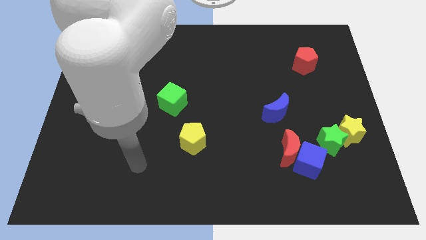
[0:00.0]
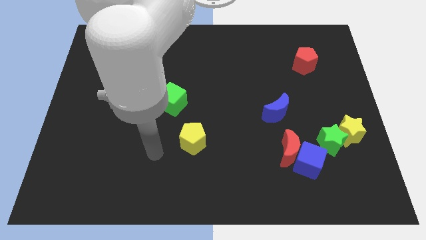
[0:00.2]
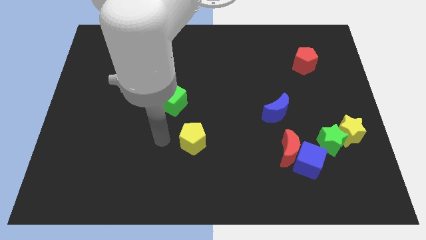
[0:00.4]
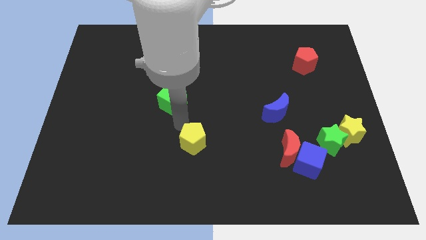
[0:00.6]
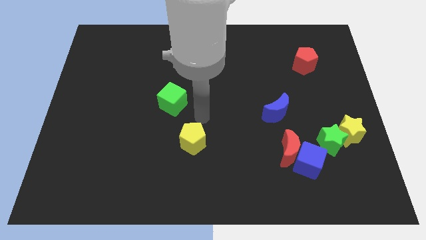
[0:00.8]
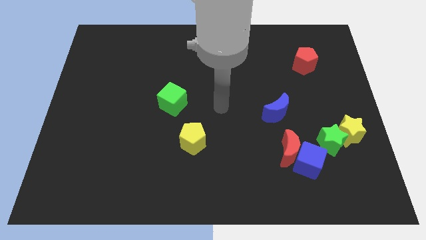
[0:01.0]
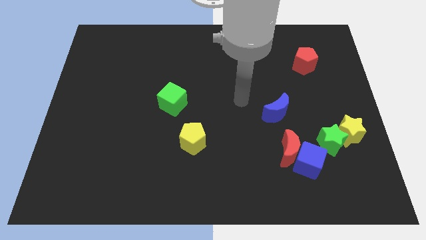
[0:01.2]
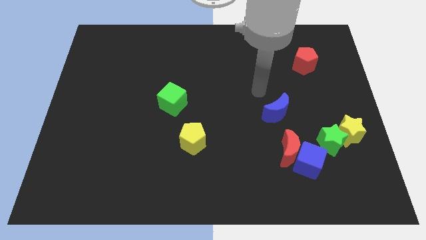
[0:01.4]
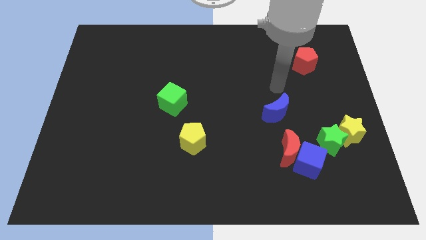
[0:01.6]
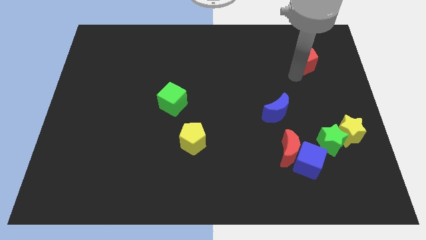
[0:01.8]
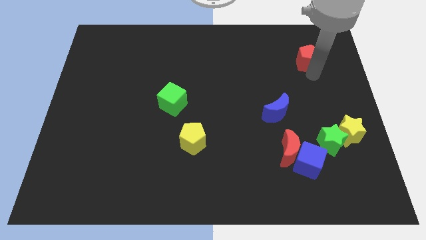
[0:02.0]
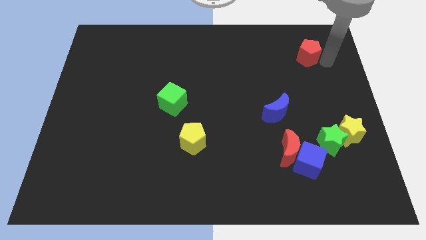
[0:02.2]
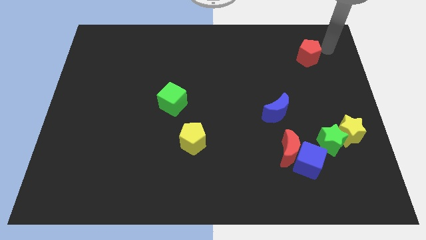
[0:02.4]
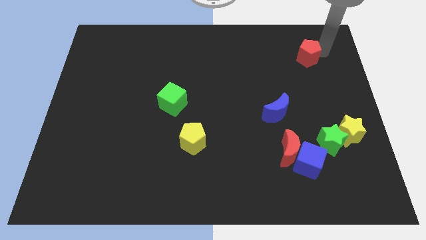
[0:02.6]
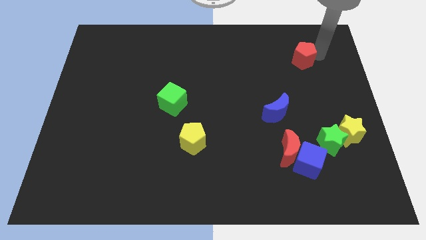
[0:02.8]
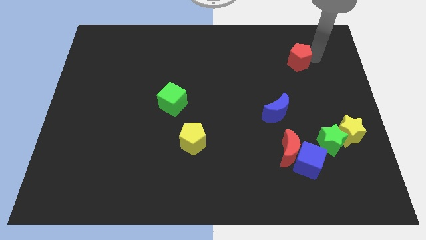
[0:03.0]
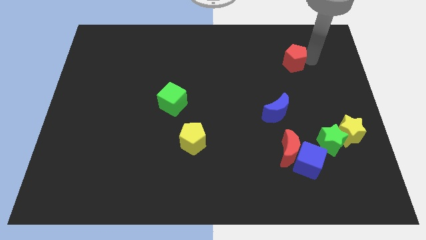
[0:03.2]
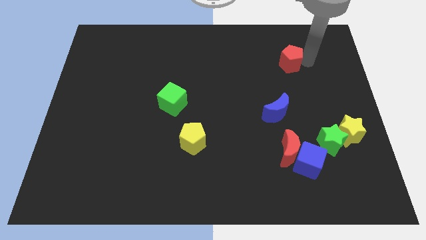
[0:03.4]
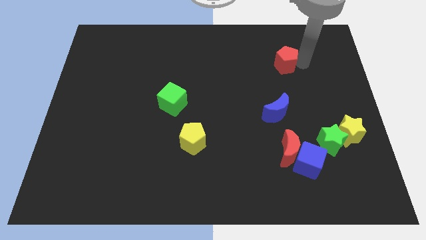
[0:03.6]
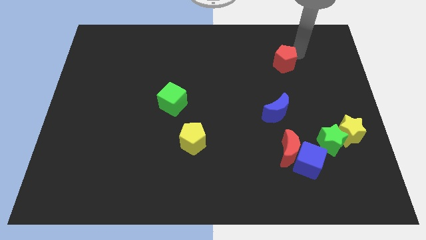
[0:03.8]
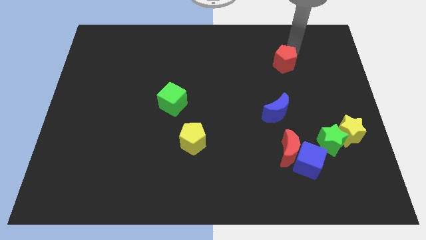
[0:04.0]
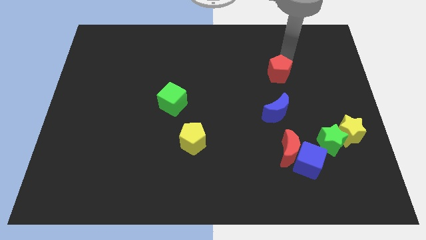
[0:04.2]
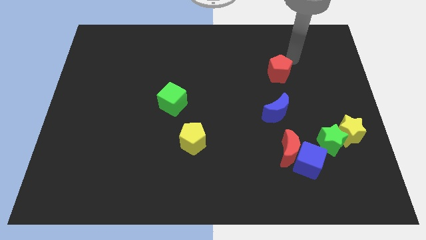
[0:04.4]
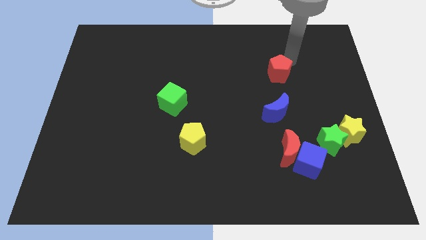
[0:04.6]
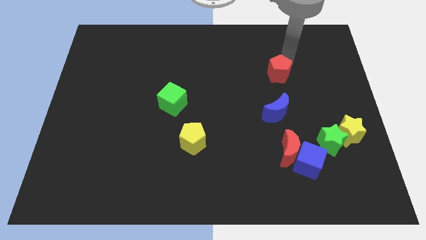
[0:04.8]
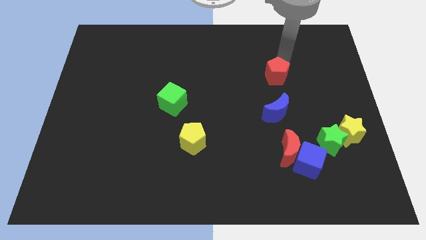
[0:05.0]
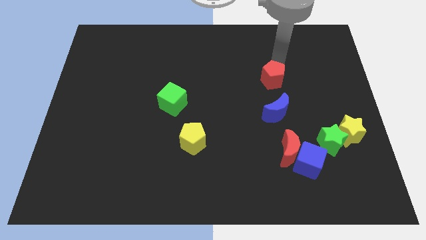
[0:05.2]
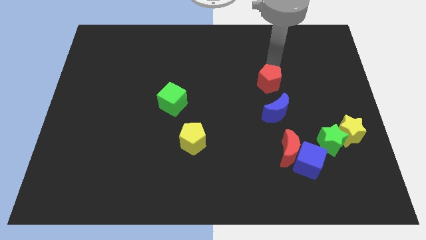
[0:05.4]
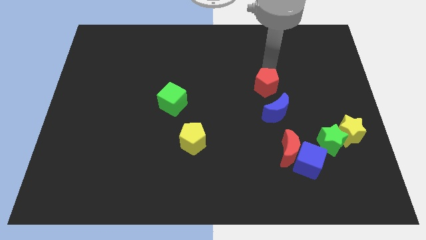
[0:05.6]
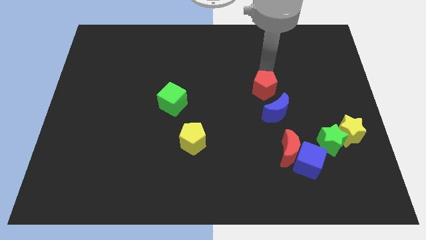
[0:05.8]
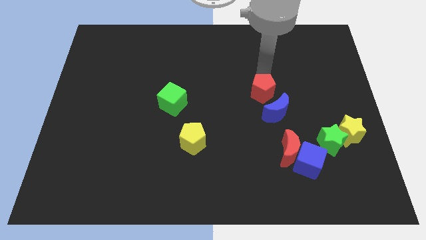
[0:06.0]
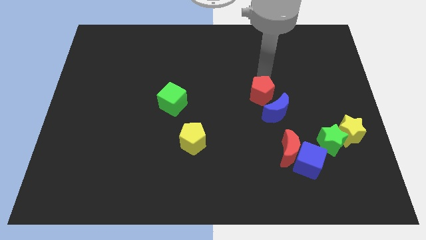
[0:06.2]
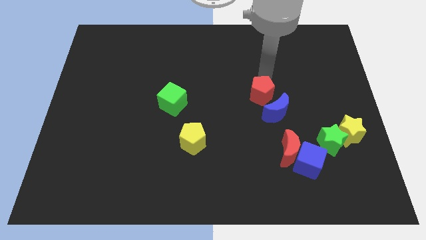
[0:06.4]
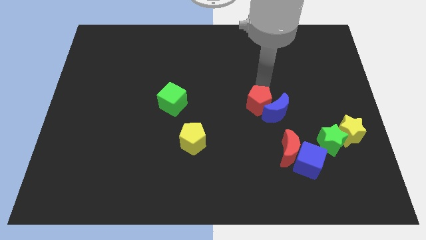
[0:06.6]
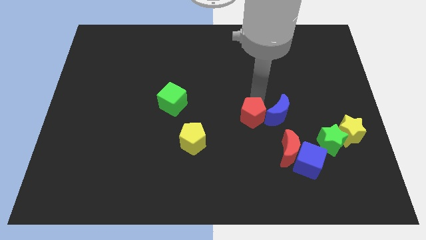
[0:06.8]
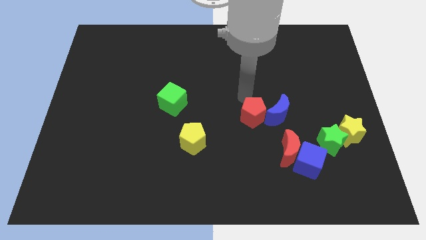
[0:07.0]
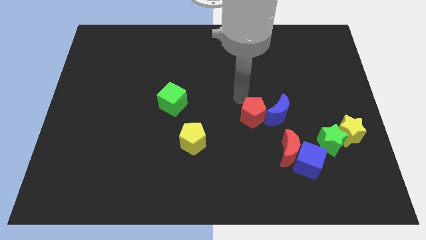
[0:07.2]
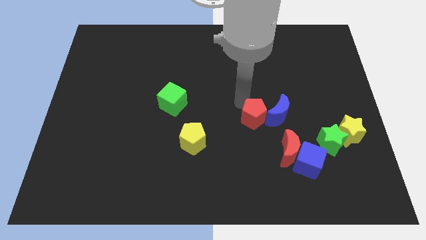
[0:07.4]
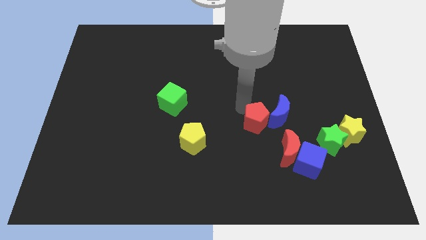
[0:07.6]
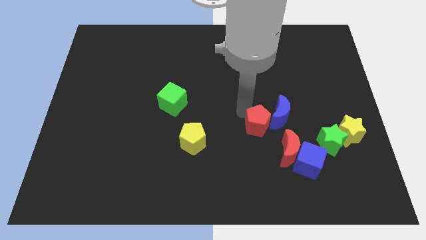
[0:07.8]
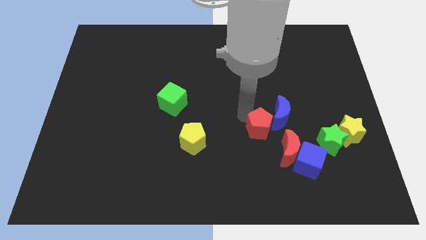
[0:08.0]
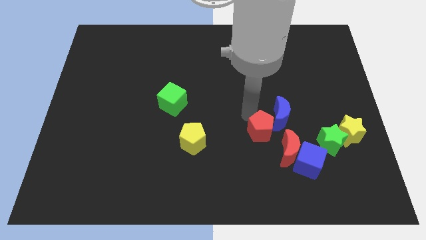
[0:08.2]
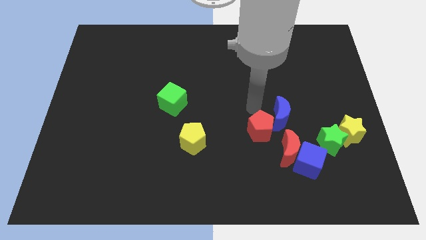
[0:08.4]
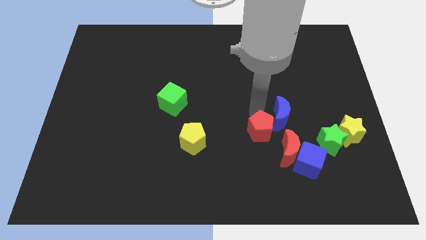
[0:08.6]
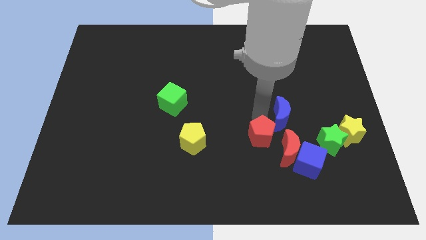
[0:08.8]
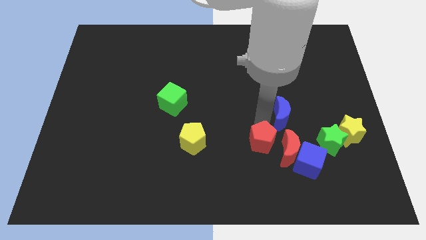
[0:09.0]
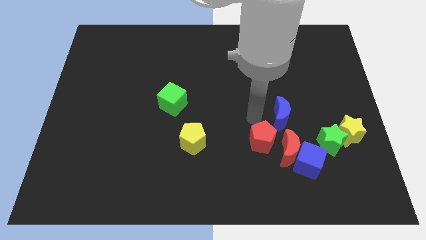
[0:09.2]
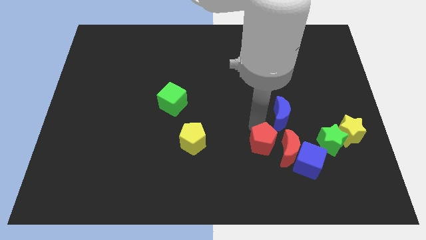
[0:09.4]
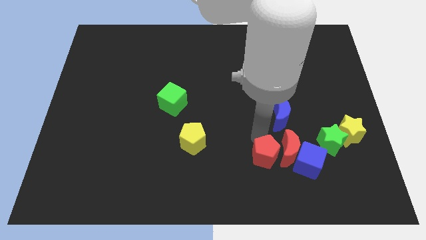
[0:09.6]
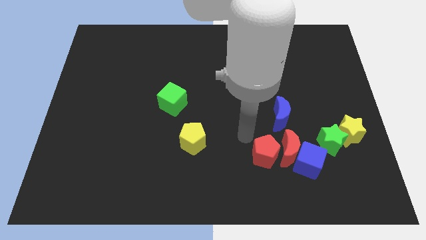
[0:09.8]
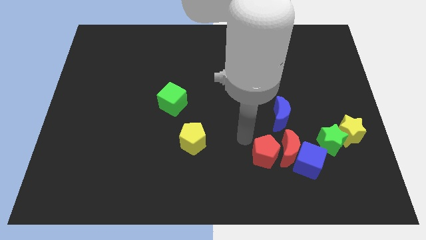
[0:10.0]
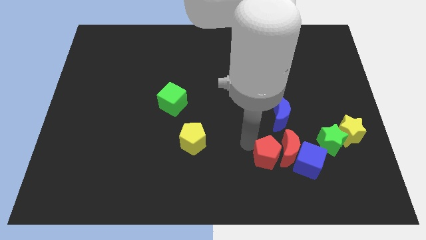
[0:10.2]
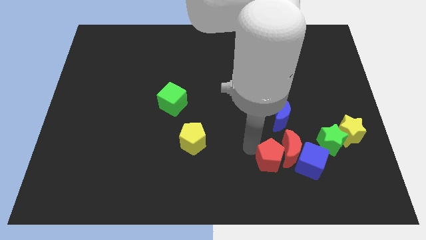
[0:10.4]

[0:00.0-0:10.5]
move the red pentagon down

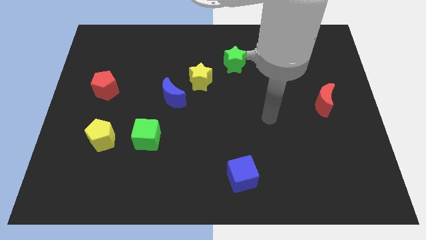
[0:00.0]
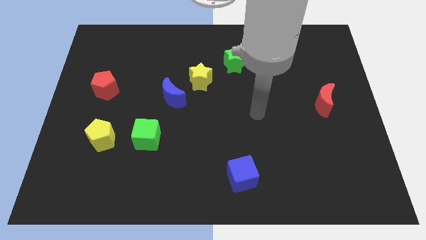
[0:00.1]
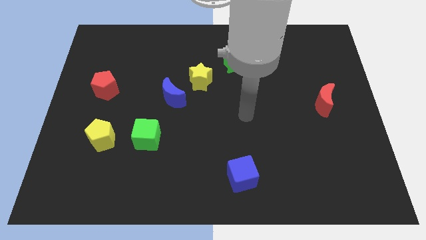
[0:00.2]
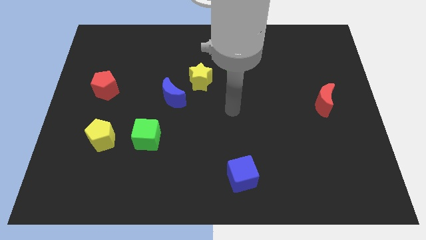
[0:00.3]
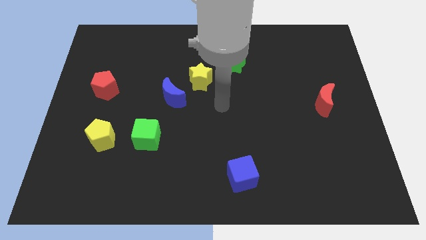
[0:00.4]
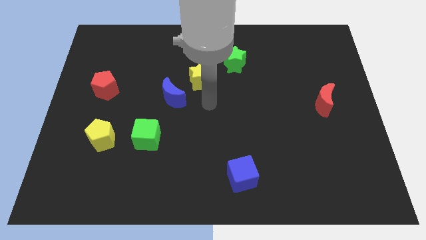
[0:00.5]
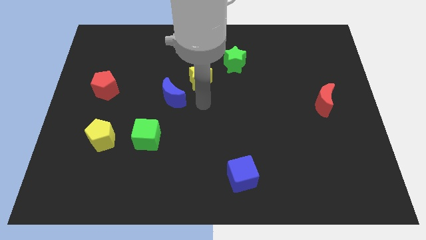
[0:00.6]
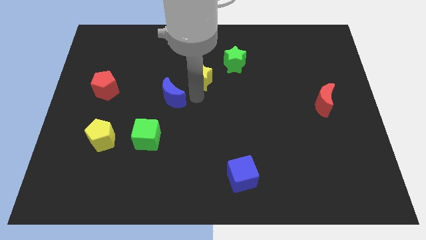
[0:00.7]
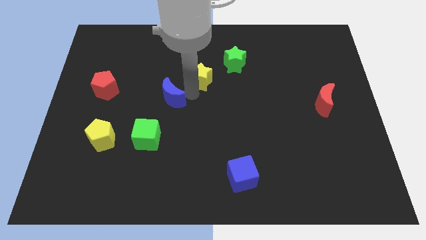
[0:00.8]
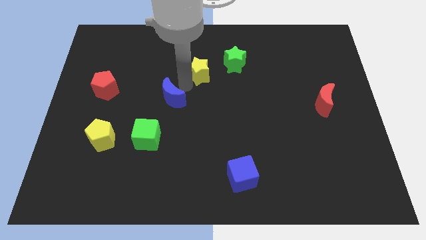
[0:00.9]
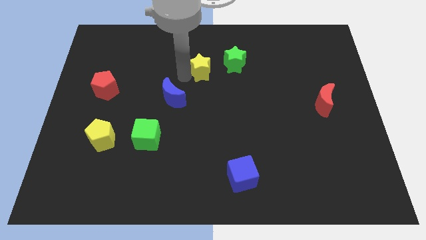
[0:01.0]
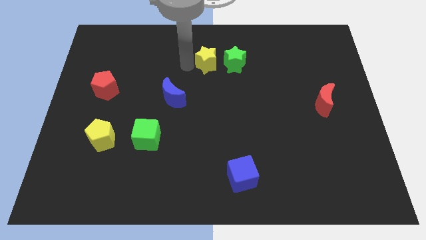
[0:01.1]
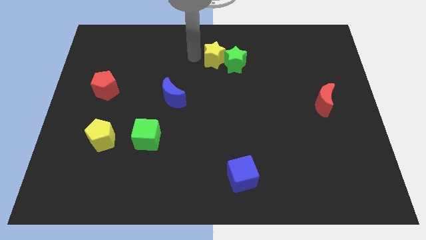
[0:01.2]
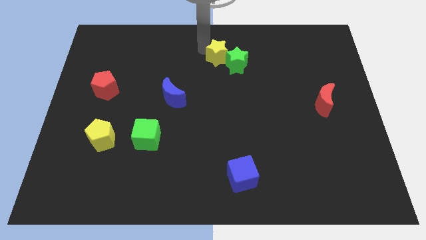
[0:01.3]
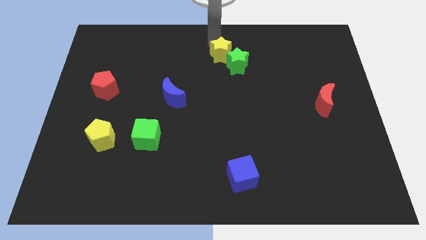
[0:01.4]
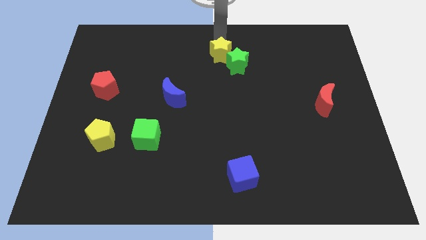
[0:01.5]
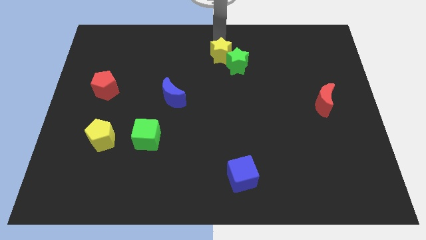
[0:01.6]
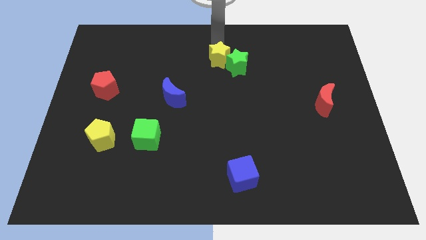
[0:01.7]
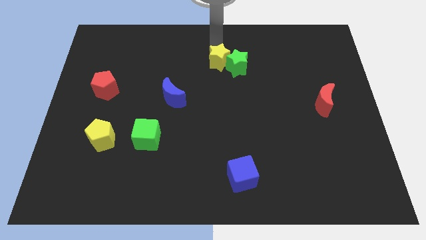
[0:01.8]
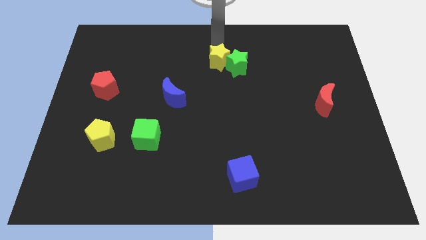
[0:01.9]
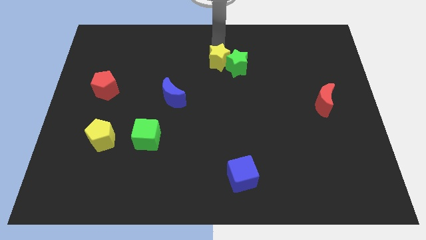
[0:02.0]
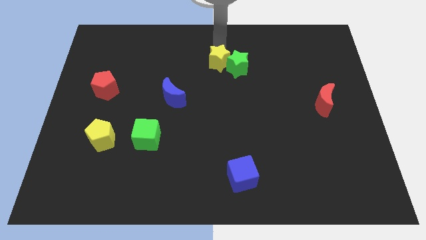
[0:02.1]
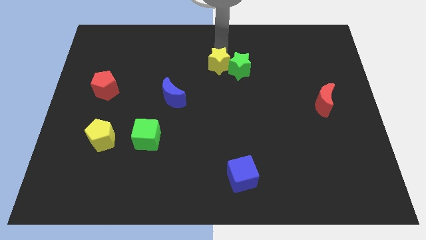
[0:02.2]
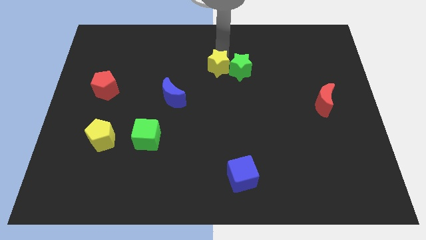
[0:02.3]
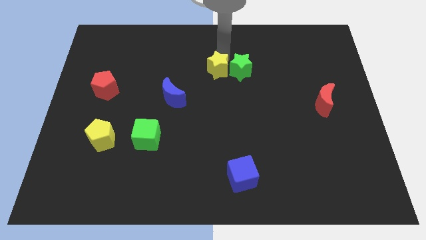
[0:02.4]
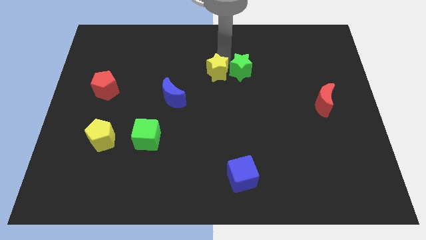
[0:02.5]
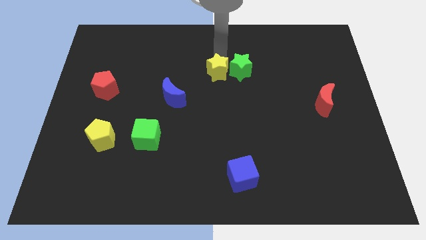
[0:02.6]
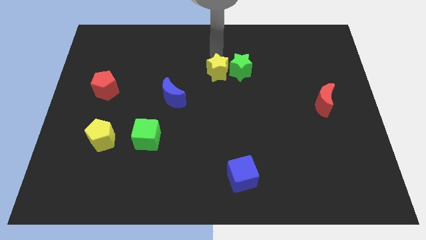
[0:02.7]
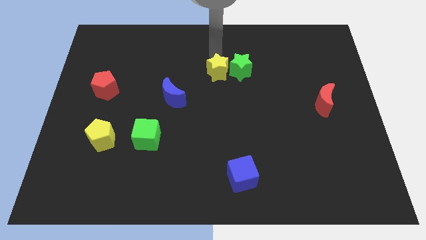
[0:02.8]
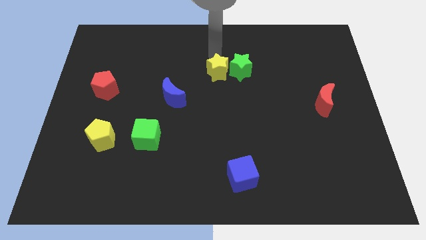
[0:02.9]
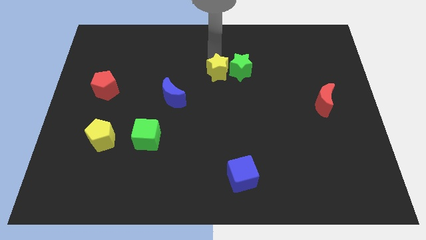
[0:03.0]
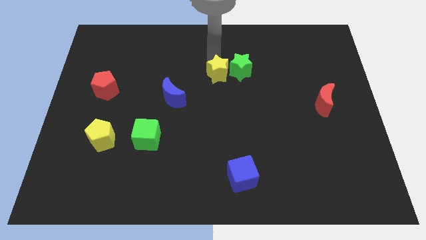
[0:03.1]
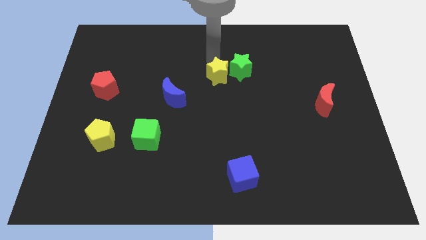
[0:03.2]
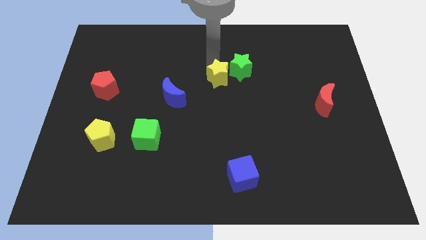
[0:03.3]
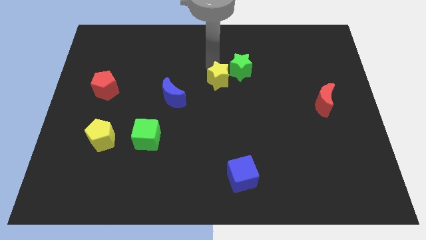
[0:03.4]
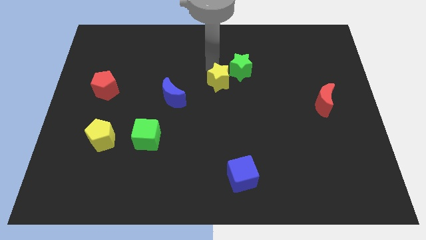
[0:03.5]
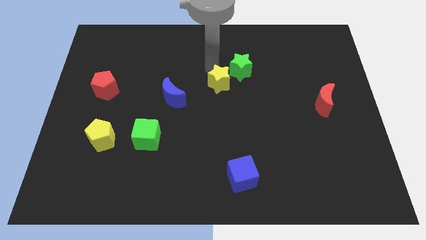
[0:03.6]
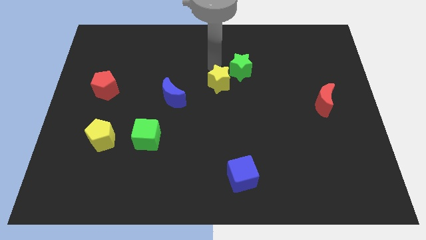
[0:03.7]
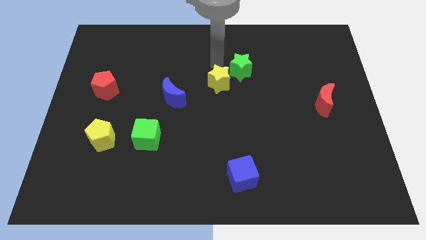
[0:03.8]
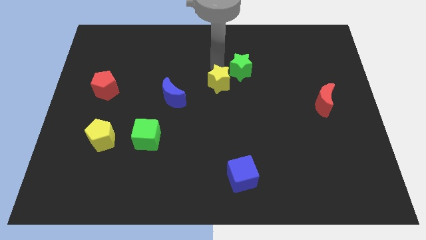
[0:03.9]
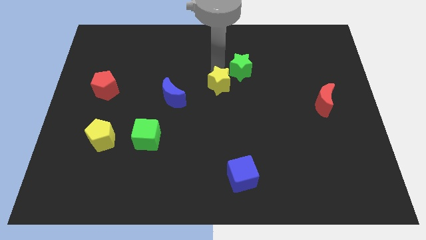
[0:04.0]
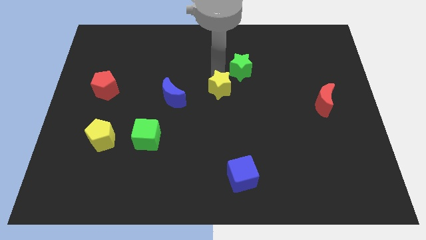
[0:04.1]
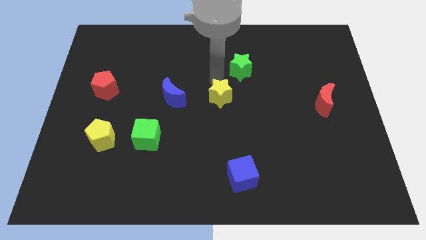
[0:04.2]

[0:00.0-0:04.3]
slide the yellow star a little downwards and right
